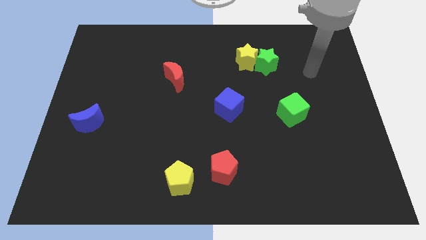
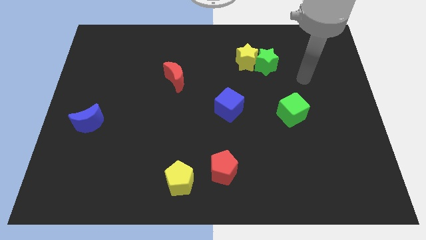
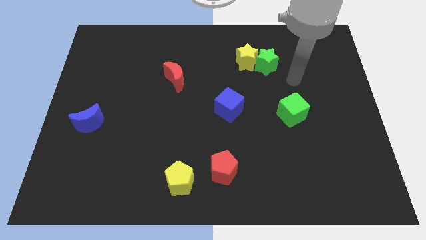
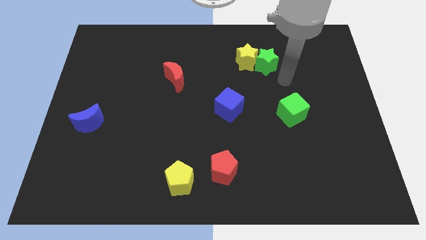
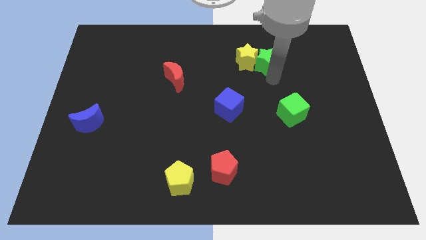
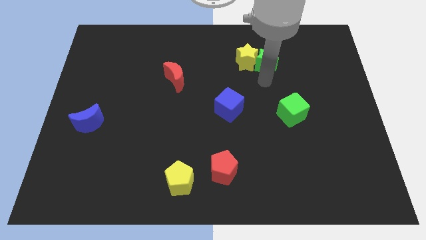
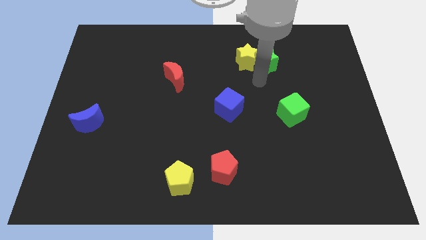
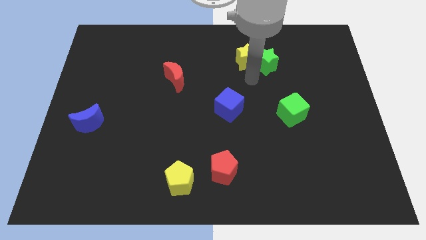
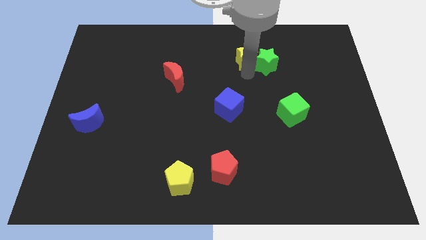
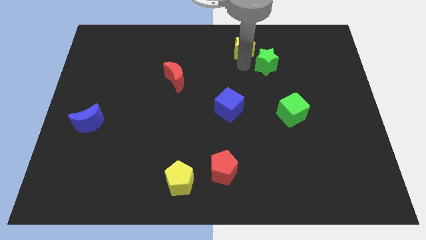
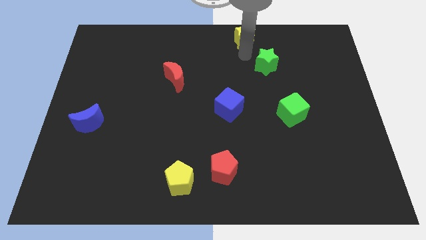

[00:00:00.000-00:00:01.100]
move the green star away from the yellow star

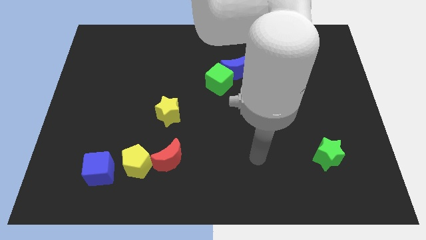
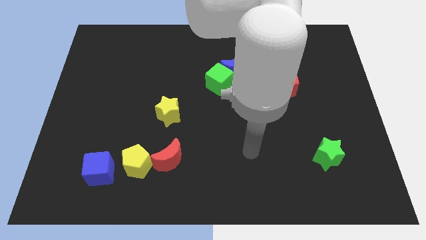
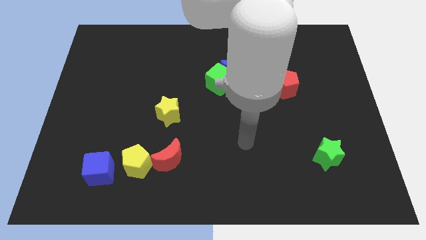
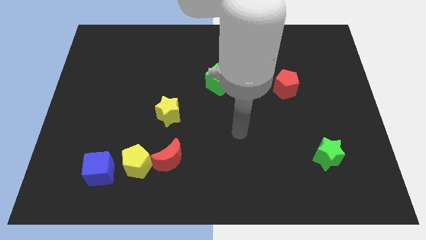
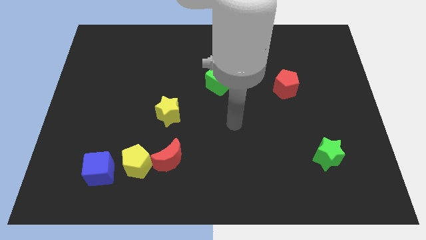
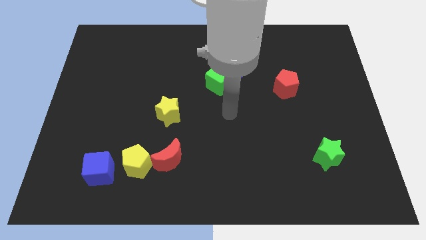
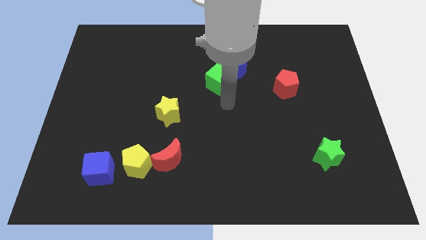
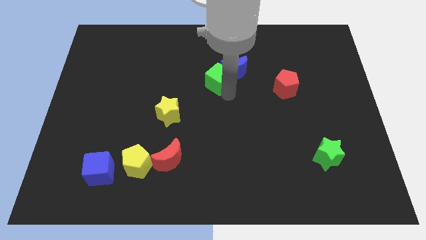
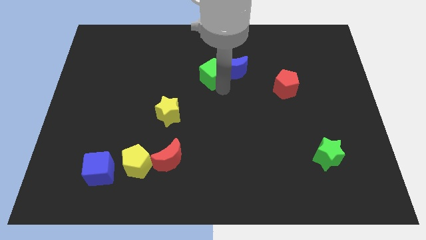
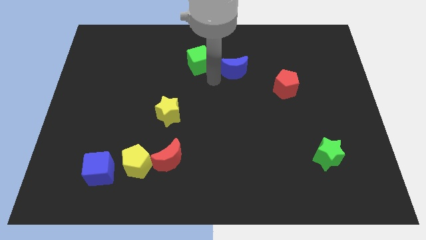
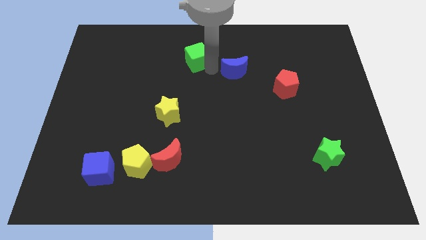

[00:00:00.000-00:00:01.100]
move the blue moon away from the green cube

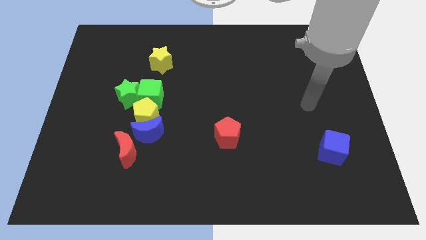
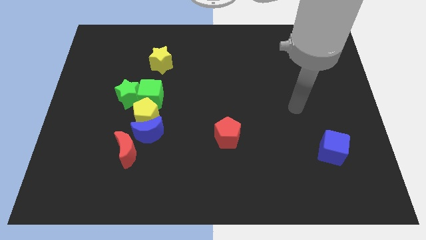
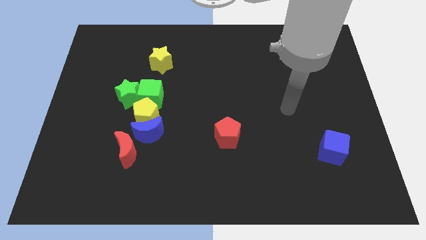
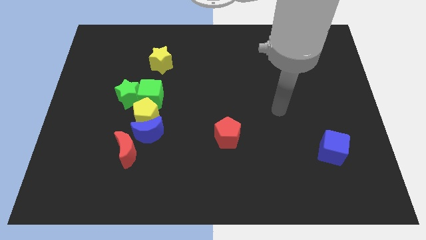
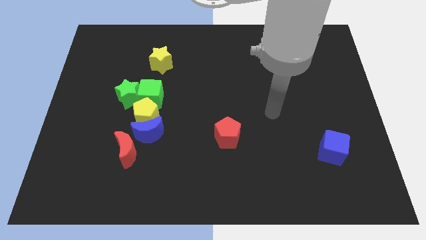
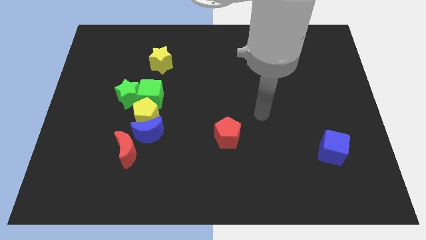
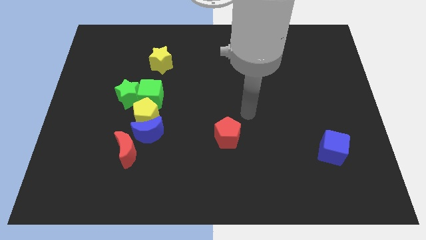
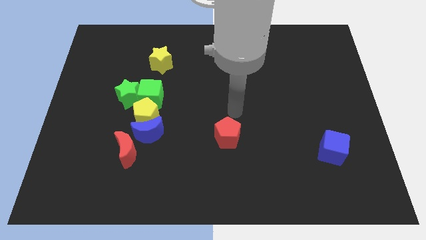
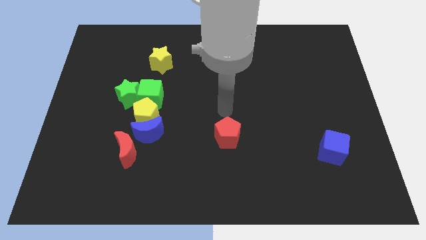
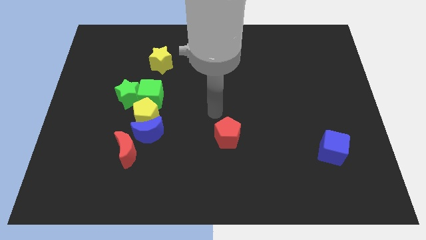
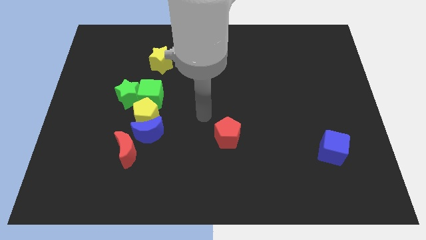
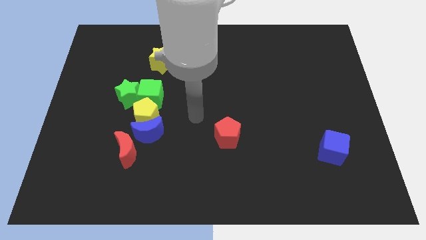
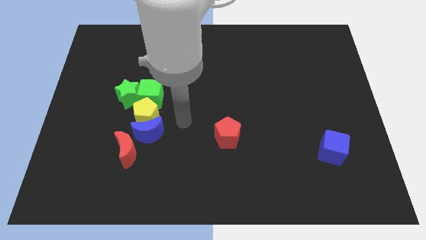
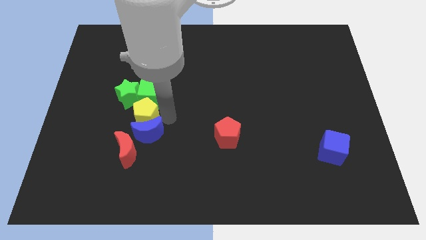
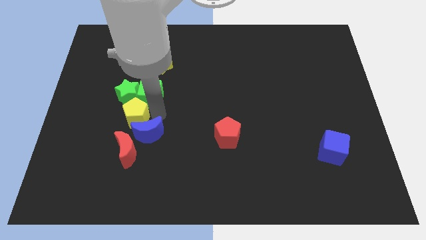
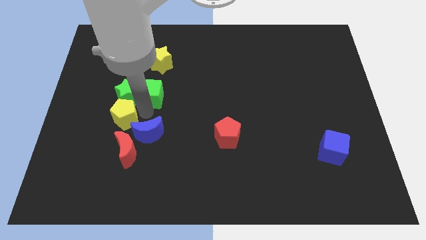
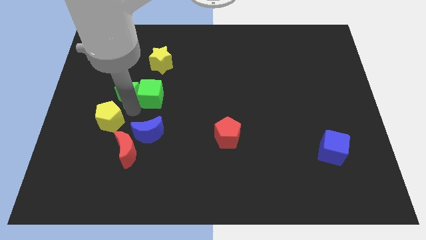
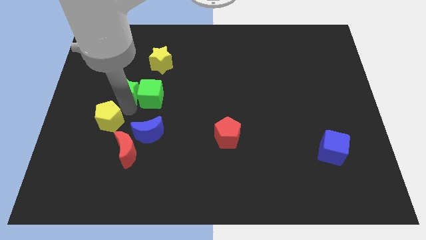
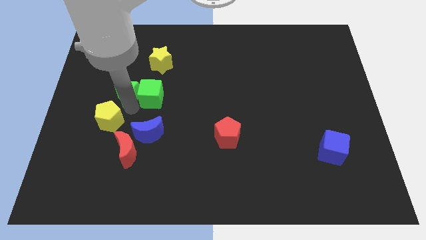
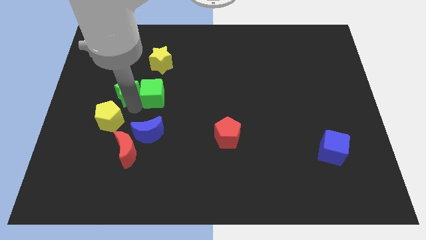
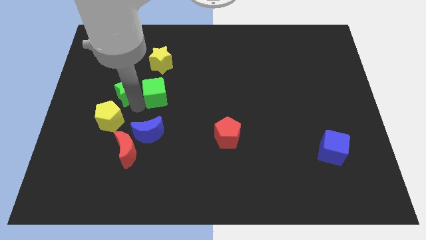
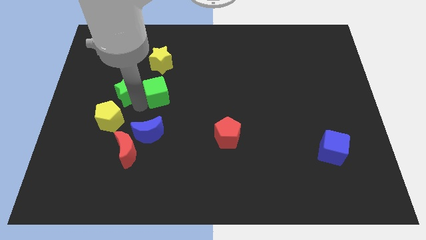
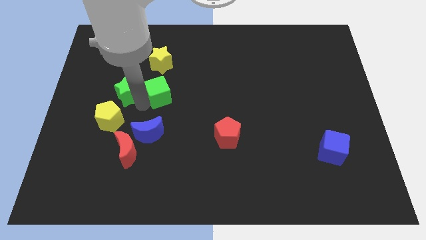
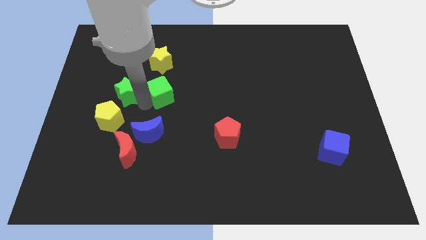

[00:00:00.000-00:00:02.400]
move the green cube away from the green star and yellow pentagon

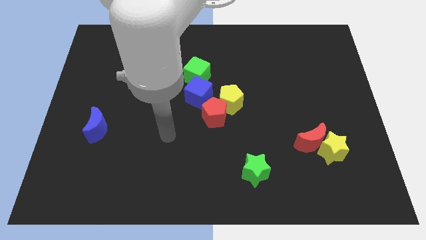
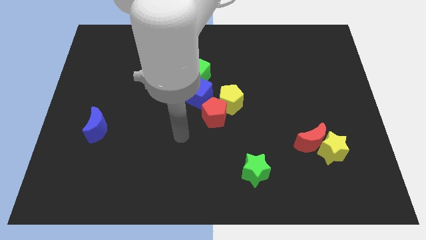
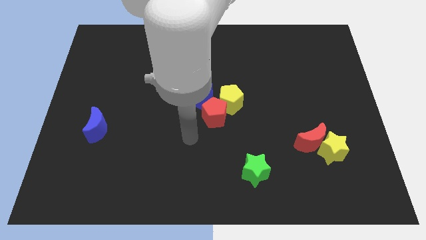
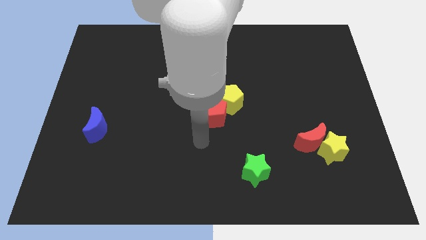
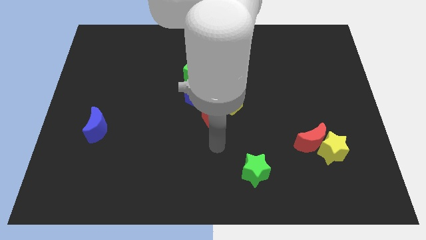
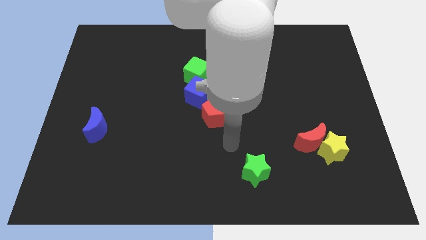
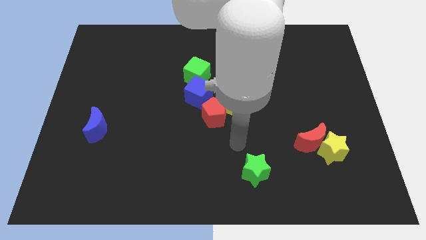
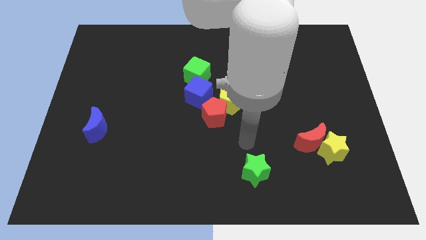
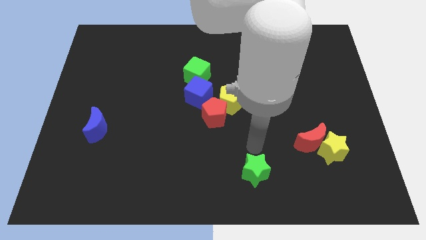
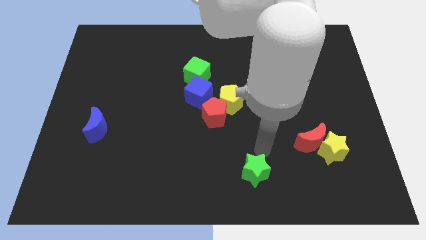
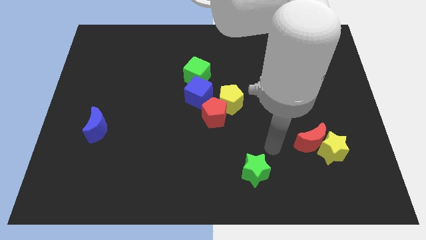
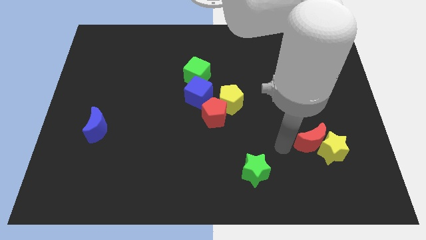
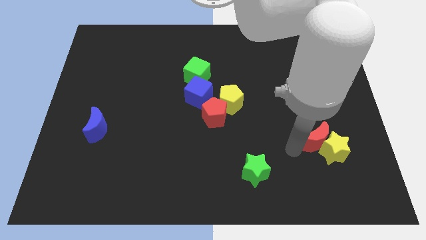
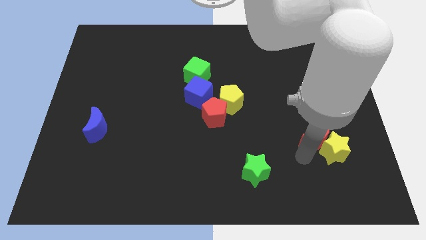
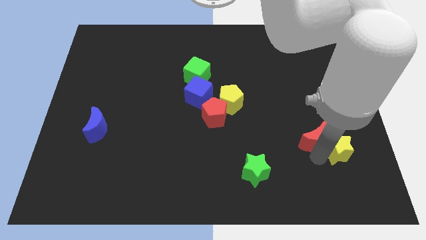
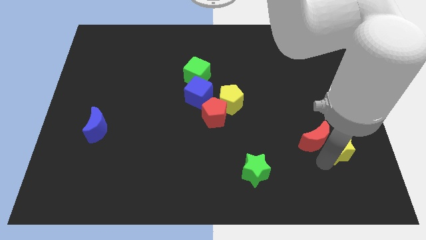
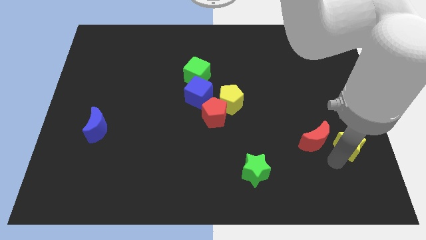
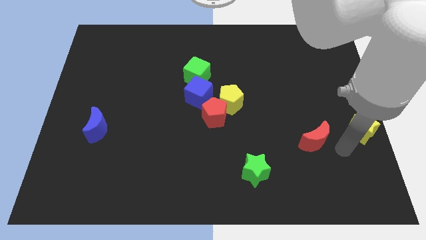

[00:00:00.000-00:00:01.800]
pull the red moon apart from the yellow star

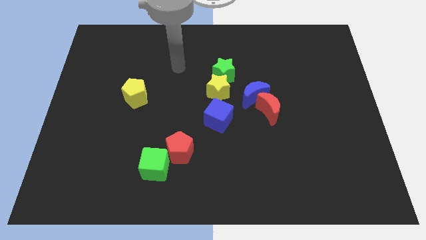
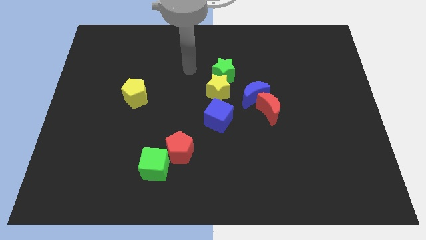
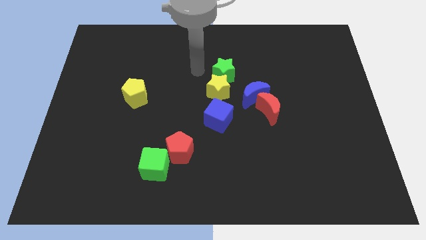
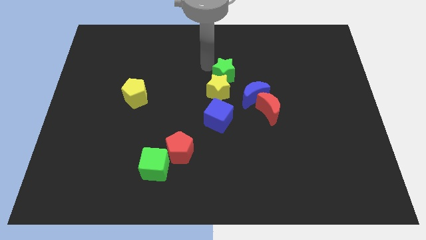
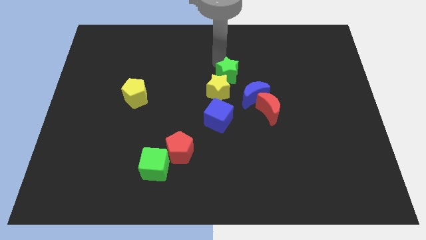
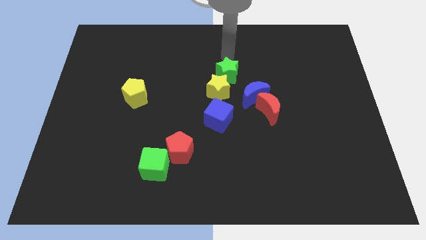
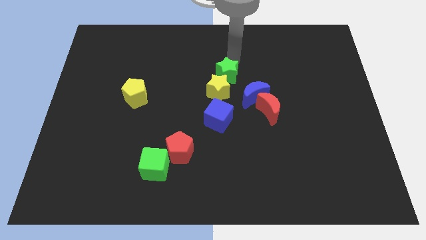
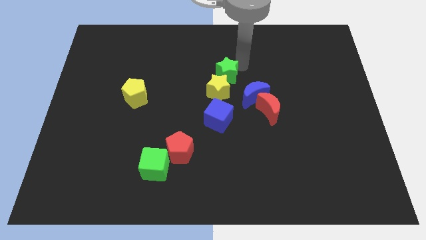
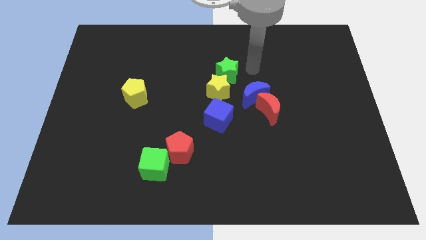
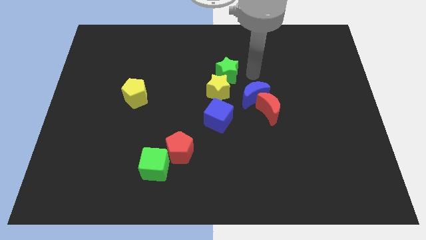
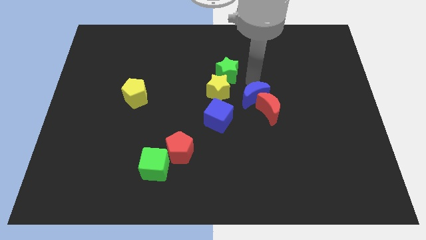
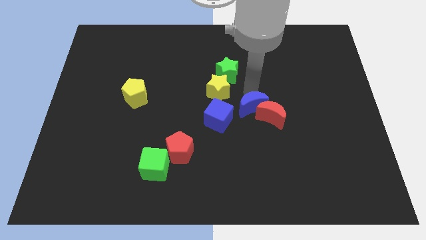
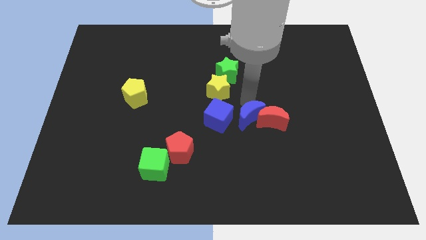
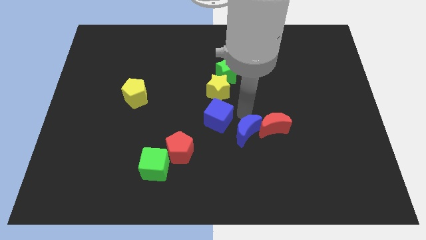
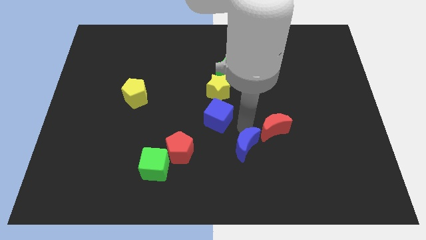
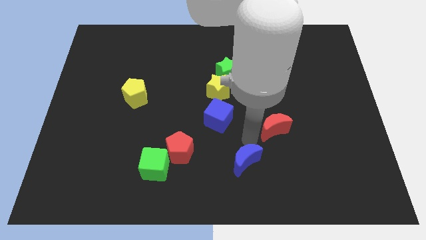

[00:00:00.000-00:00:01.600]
pull the red moon apart from the blue moon

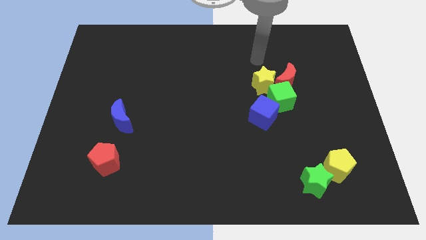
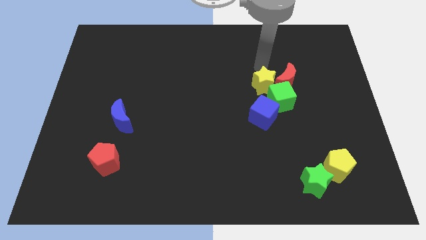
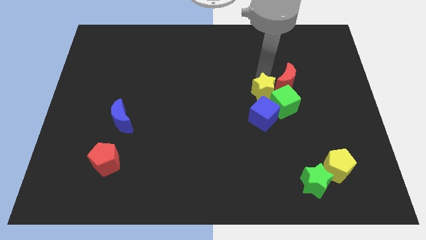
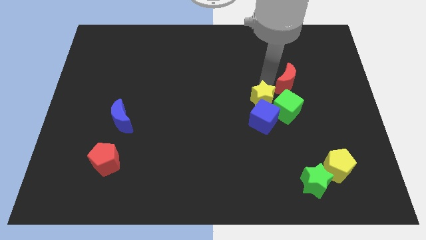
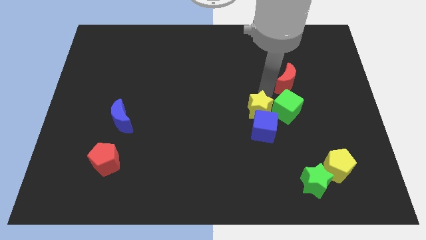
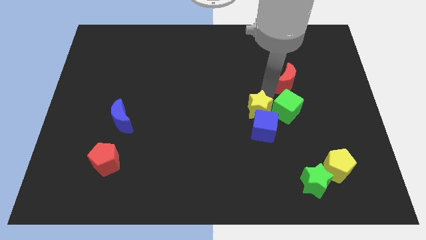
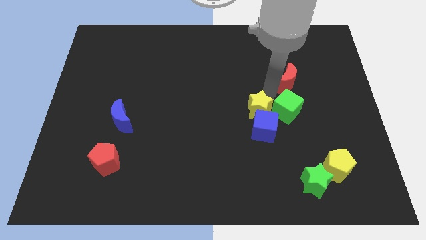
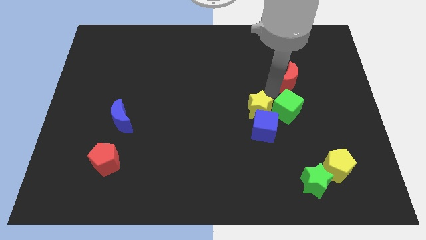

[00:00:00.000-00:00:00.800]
move the red moon away from the yellow star and green cube

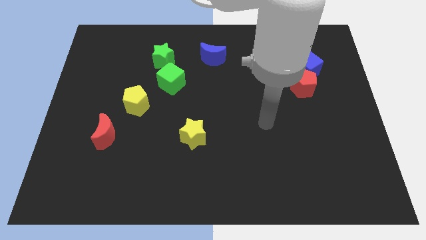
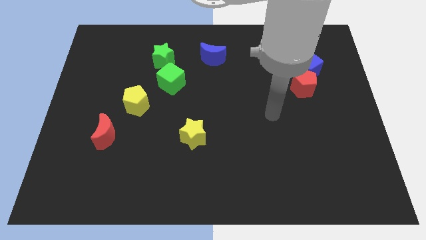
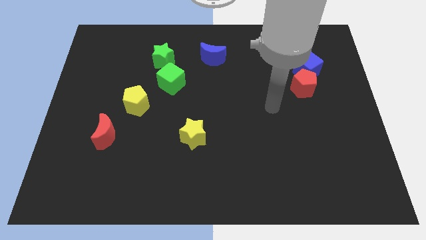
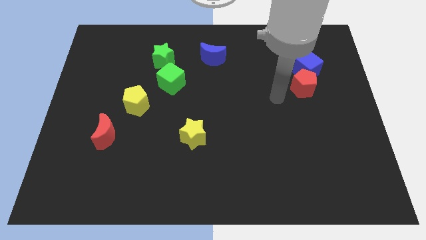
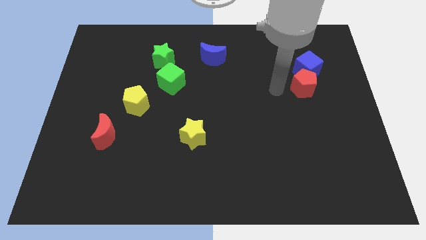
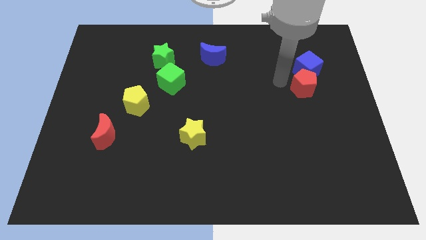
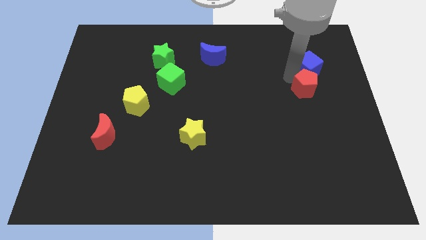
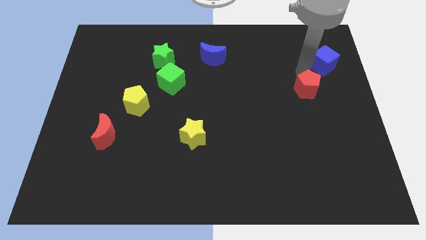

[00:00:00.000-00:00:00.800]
move the red pentagon away from the blue cube
